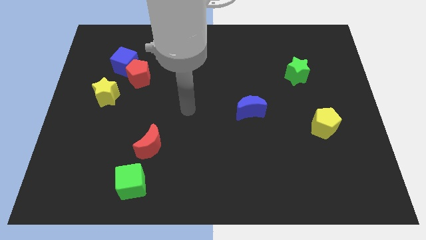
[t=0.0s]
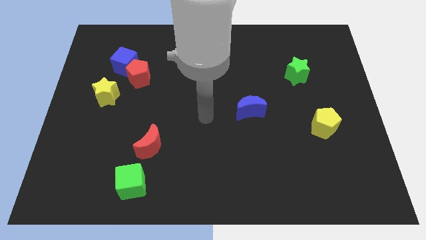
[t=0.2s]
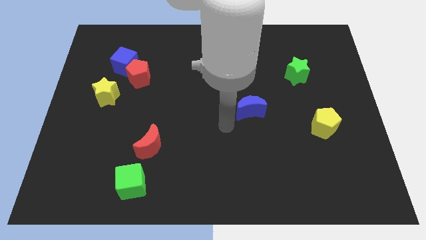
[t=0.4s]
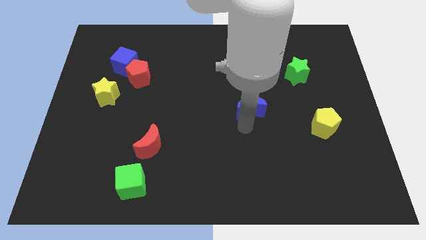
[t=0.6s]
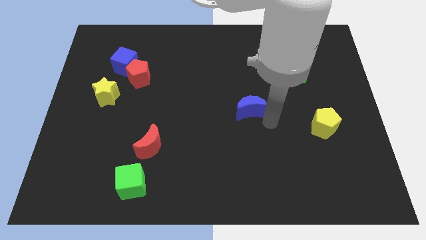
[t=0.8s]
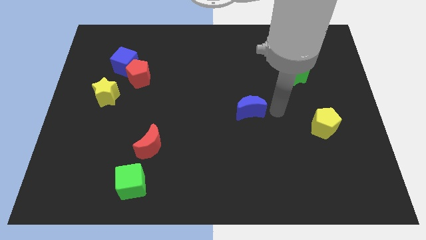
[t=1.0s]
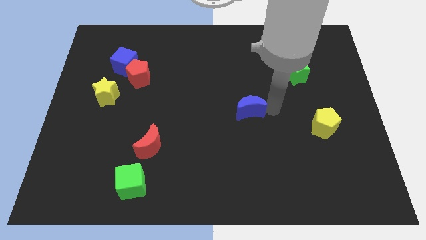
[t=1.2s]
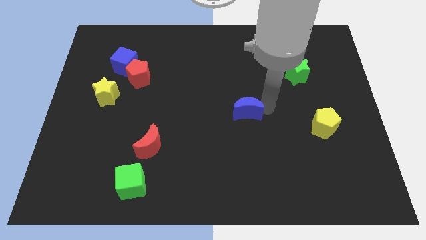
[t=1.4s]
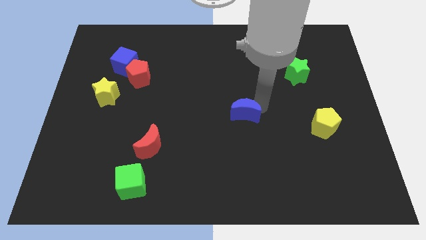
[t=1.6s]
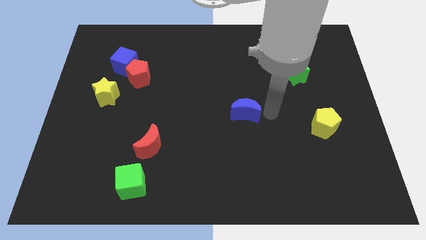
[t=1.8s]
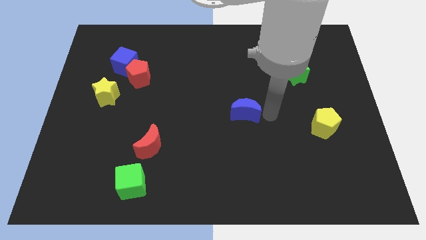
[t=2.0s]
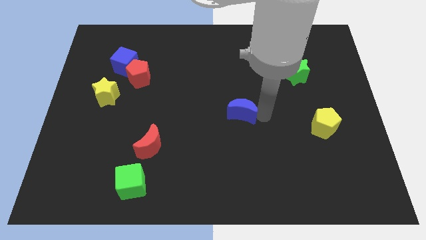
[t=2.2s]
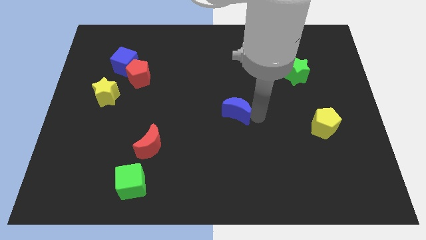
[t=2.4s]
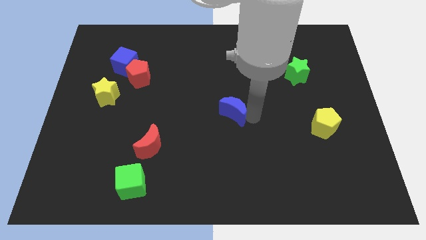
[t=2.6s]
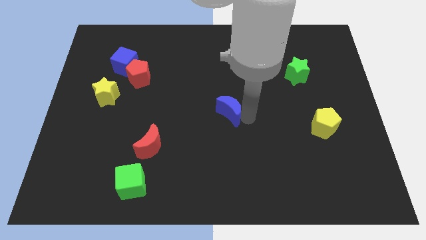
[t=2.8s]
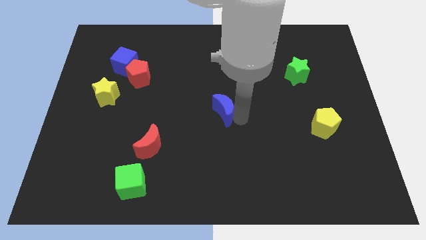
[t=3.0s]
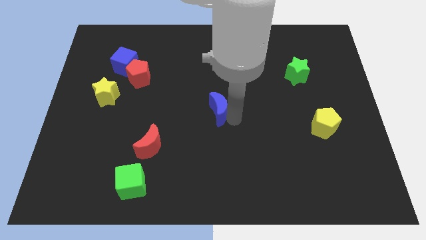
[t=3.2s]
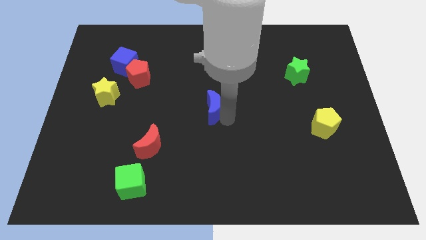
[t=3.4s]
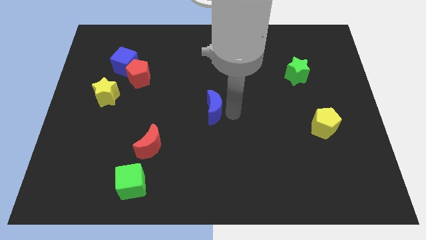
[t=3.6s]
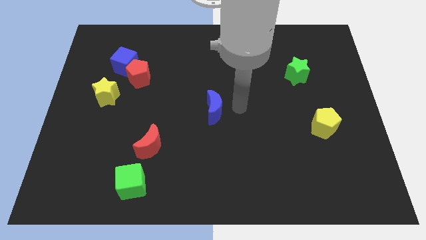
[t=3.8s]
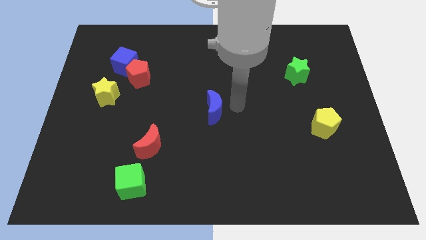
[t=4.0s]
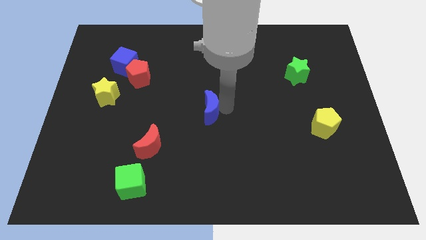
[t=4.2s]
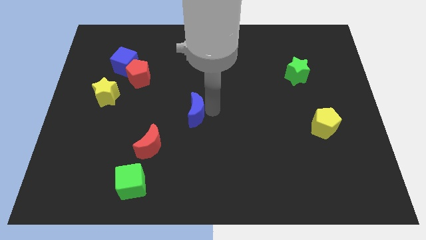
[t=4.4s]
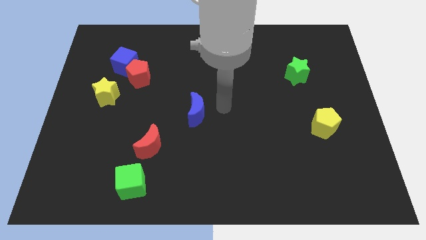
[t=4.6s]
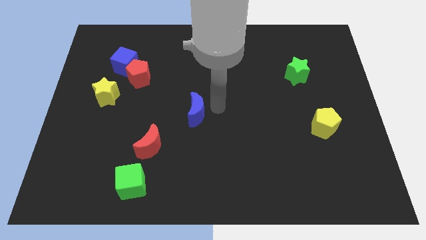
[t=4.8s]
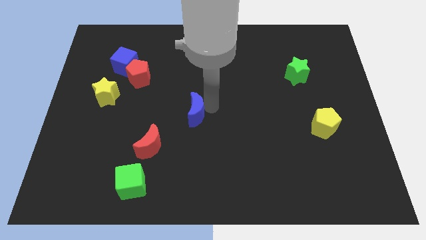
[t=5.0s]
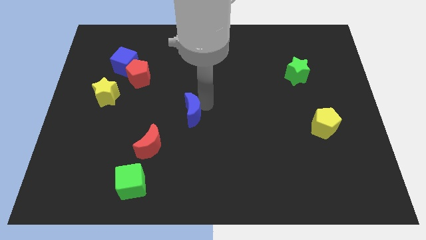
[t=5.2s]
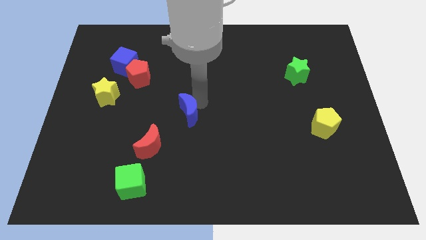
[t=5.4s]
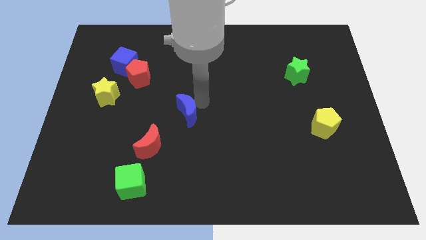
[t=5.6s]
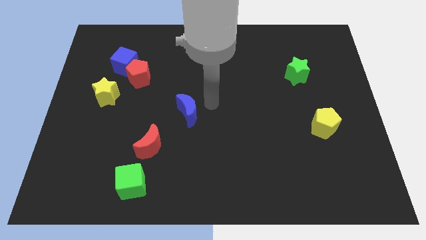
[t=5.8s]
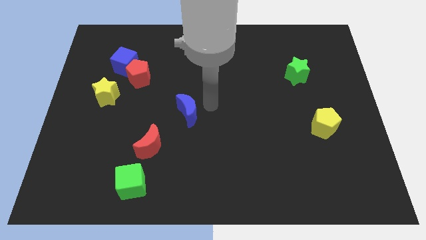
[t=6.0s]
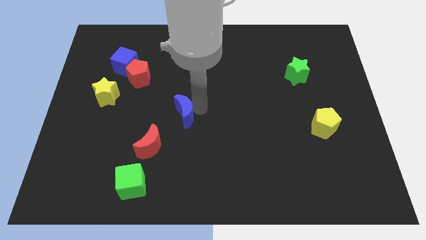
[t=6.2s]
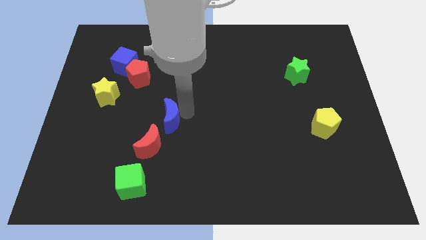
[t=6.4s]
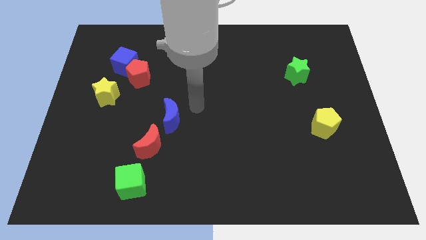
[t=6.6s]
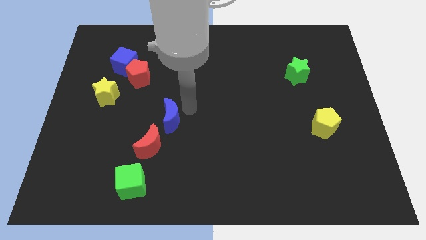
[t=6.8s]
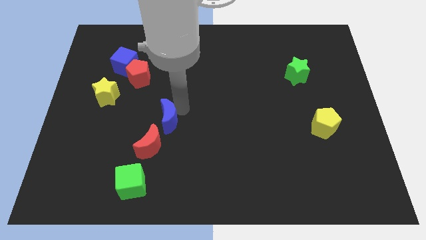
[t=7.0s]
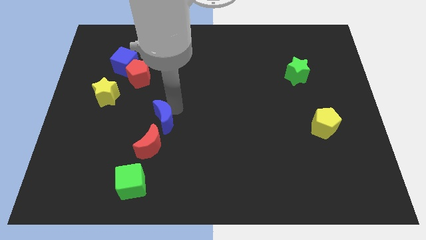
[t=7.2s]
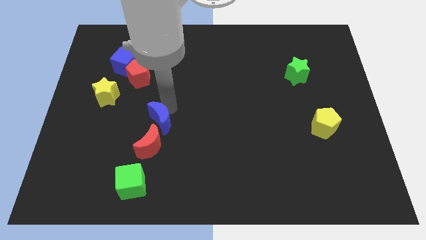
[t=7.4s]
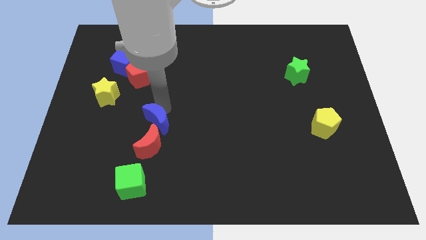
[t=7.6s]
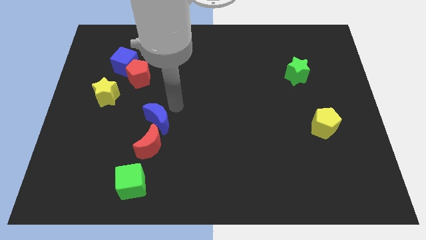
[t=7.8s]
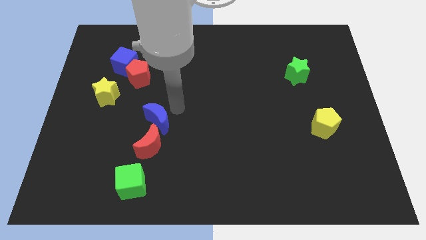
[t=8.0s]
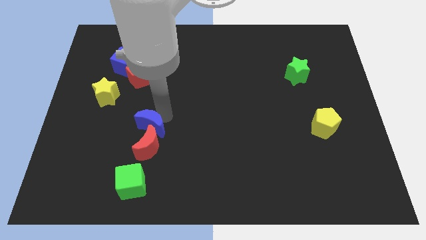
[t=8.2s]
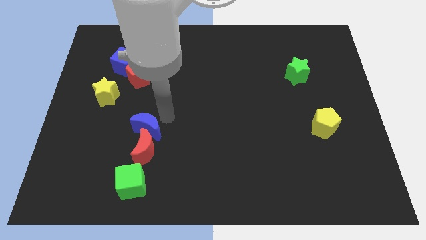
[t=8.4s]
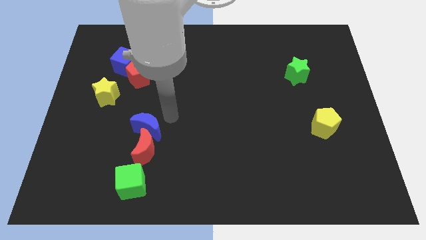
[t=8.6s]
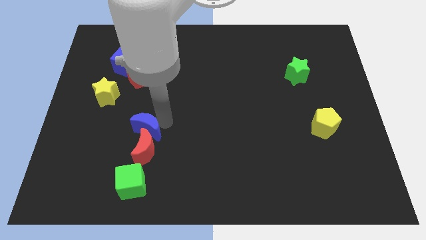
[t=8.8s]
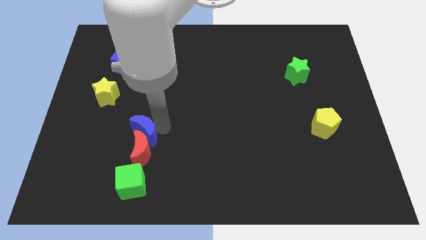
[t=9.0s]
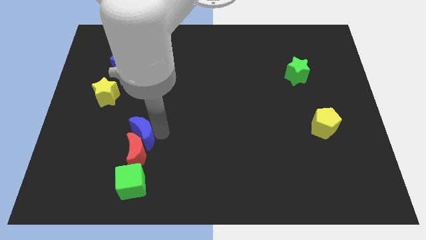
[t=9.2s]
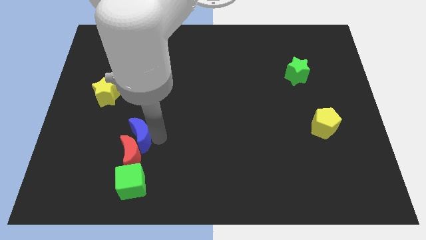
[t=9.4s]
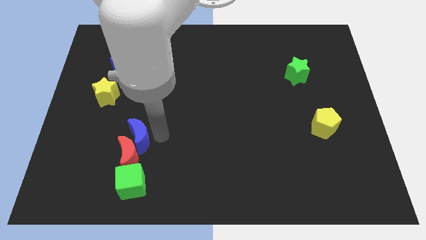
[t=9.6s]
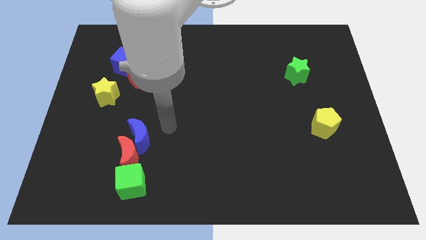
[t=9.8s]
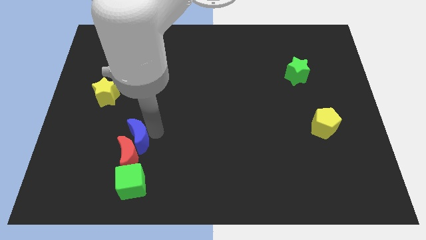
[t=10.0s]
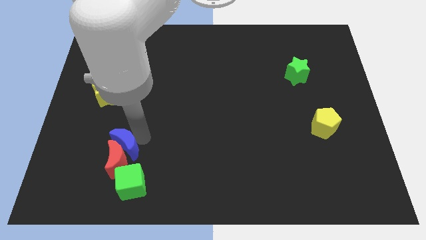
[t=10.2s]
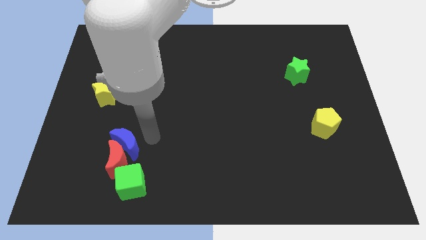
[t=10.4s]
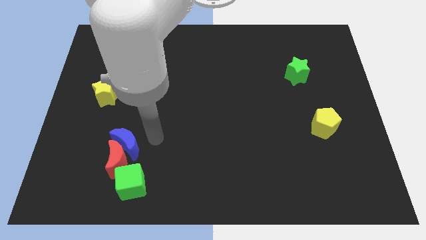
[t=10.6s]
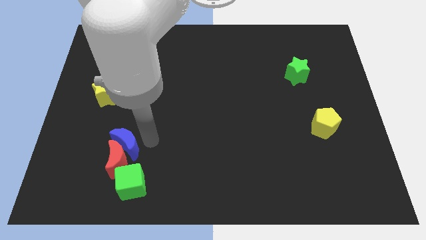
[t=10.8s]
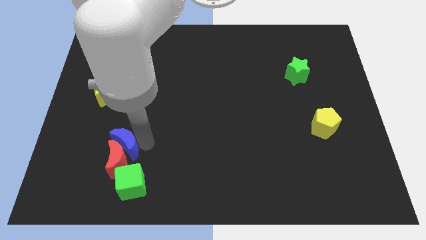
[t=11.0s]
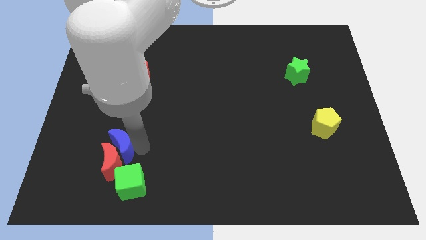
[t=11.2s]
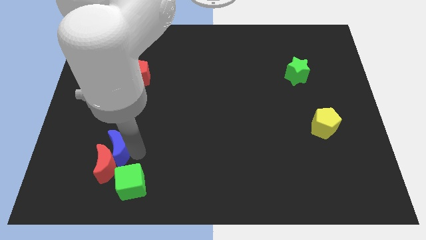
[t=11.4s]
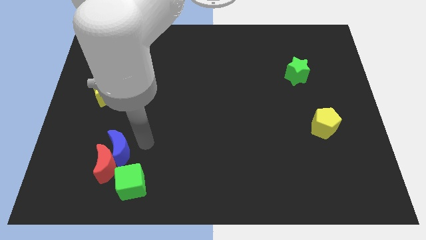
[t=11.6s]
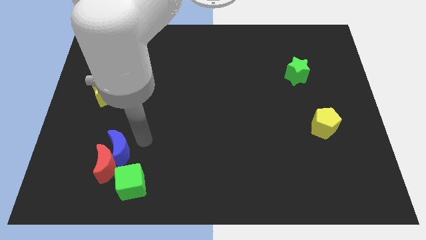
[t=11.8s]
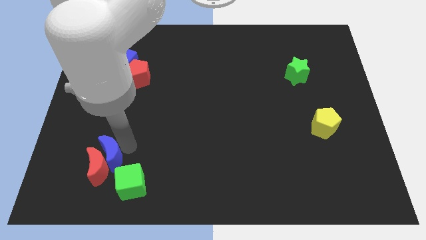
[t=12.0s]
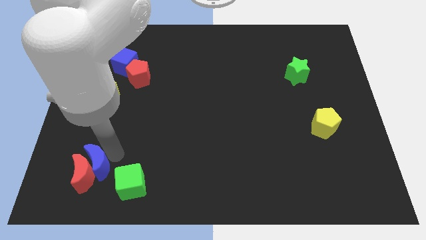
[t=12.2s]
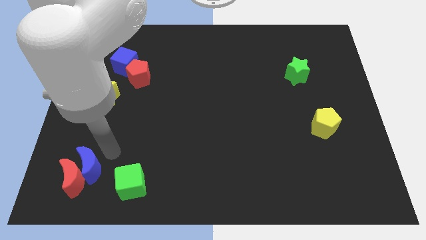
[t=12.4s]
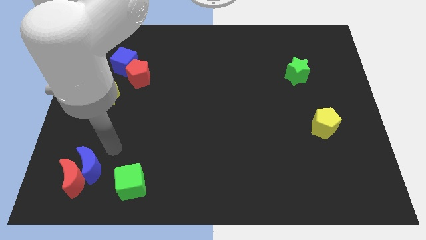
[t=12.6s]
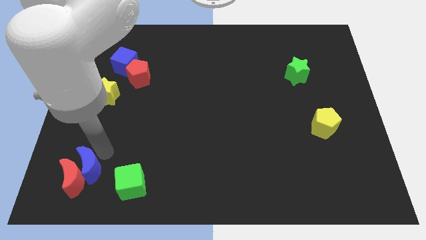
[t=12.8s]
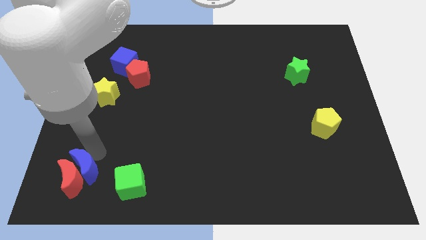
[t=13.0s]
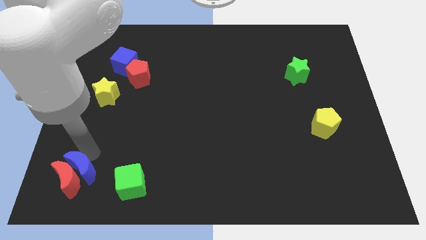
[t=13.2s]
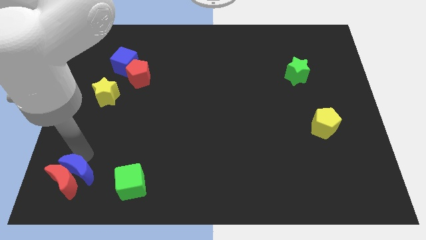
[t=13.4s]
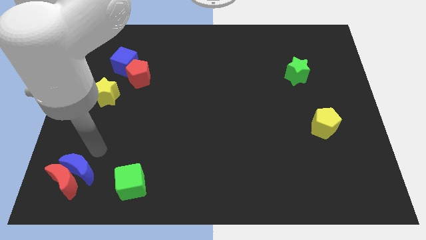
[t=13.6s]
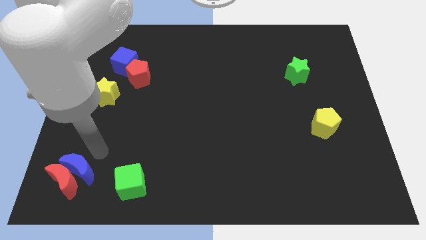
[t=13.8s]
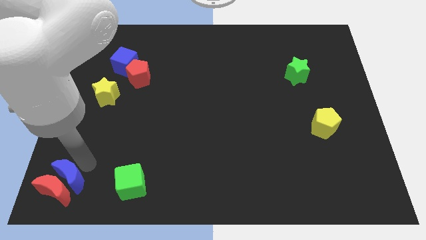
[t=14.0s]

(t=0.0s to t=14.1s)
move the blue moon to the bottom left of the board
